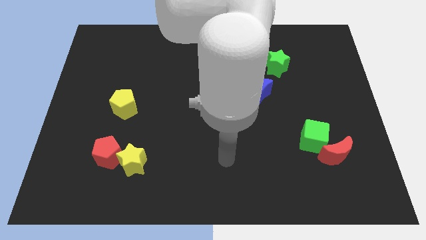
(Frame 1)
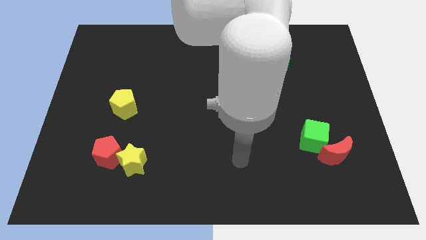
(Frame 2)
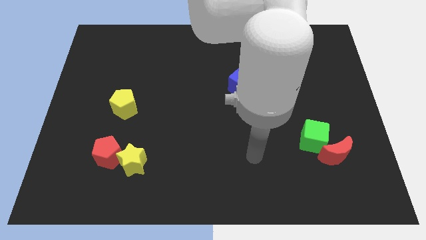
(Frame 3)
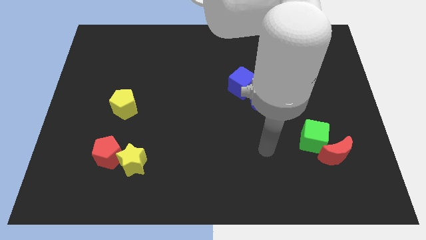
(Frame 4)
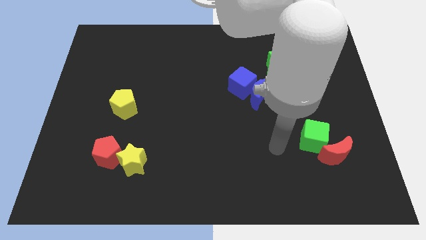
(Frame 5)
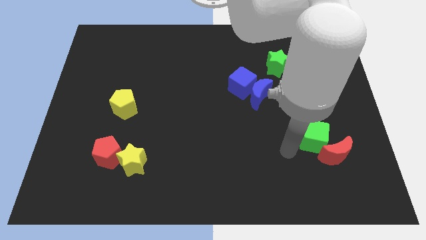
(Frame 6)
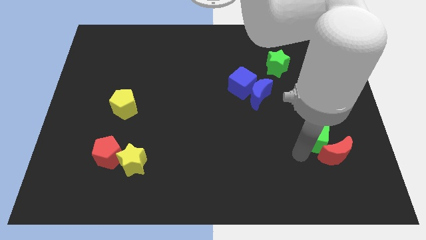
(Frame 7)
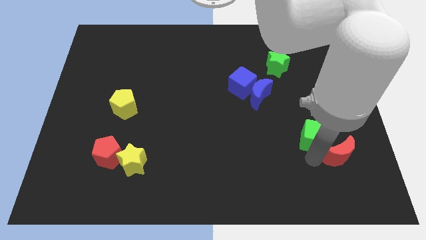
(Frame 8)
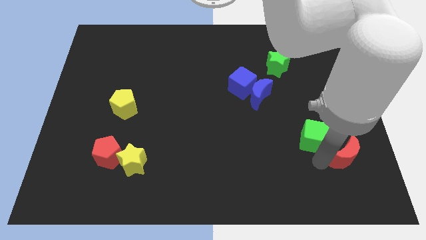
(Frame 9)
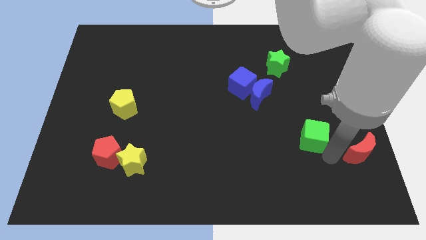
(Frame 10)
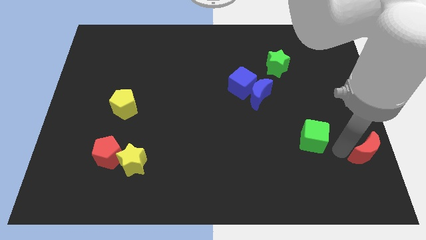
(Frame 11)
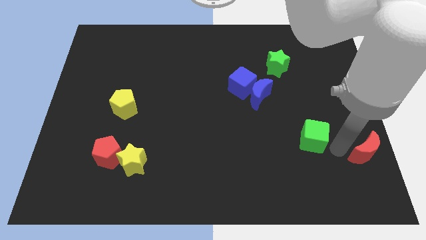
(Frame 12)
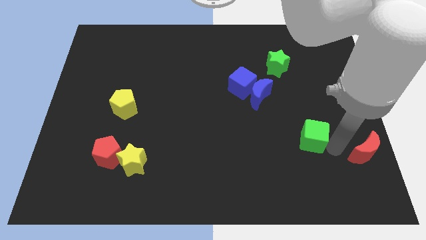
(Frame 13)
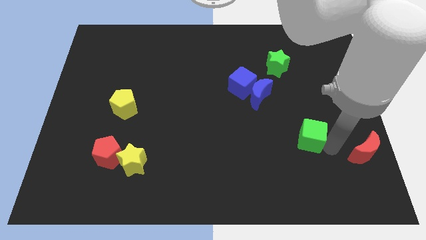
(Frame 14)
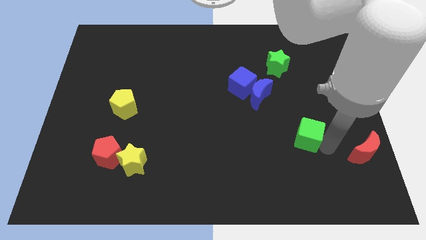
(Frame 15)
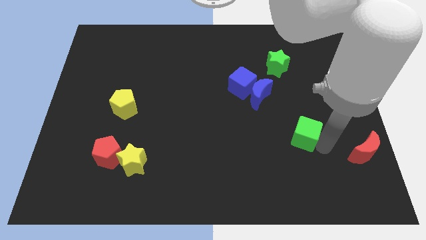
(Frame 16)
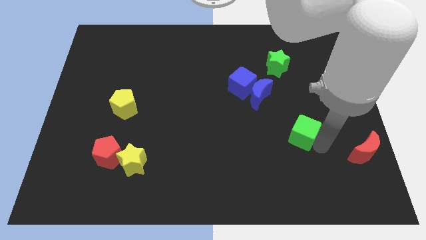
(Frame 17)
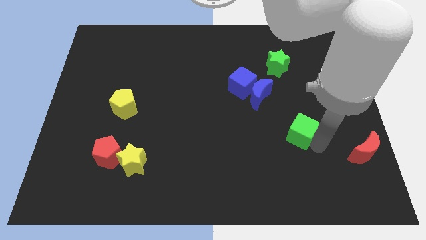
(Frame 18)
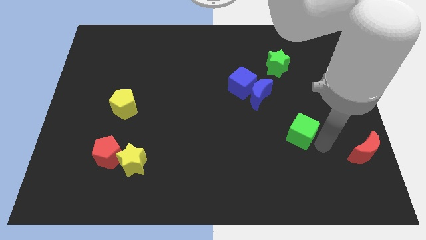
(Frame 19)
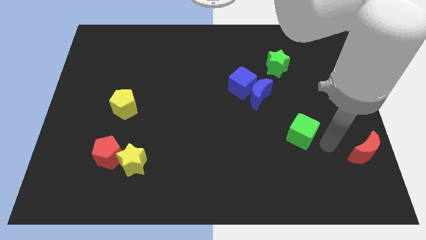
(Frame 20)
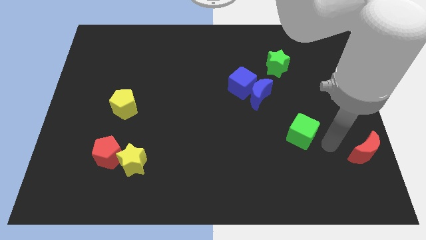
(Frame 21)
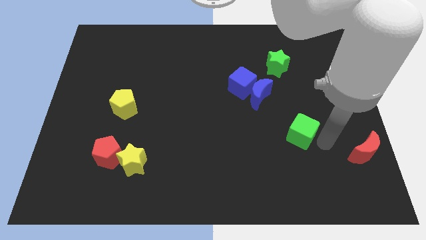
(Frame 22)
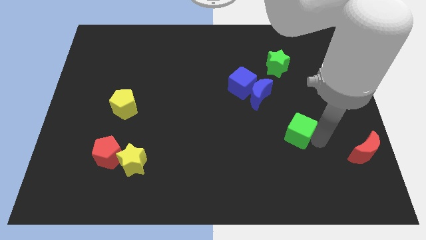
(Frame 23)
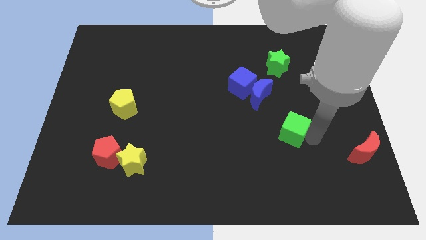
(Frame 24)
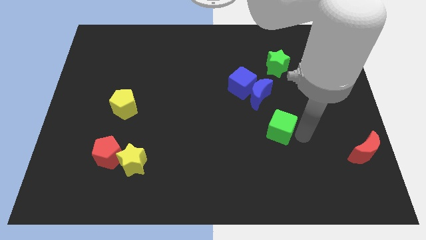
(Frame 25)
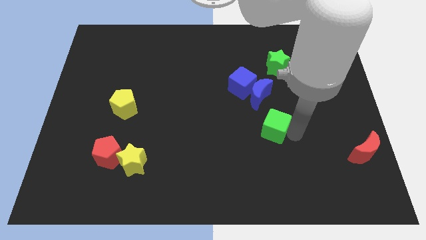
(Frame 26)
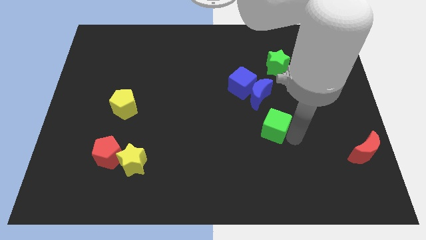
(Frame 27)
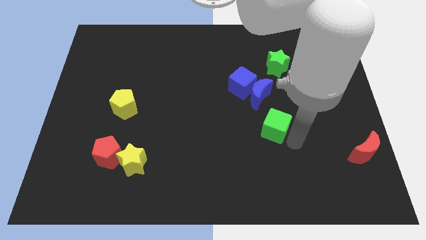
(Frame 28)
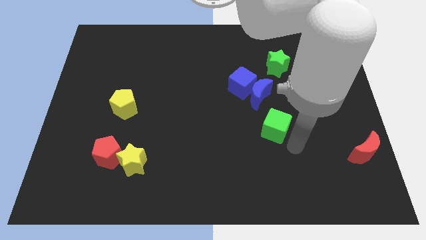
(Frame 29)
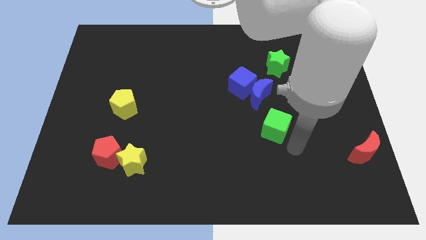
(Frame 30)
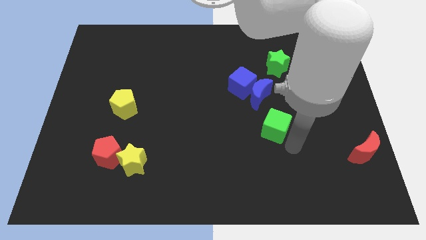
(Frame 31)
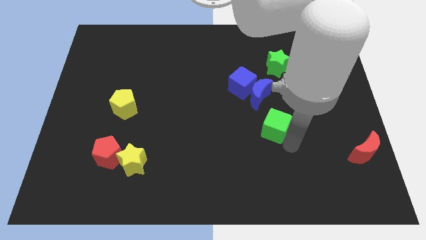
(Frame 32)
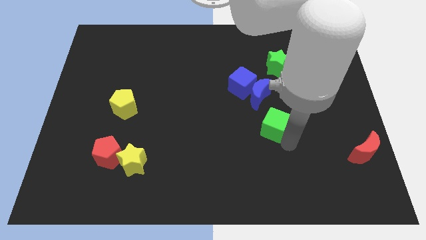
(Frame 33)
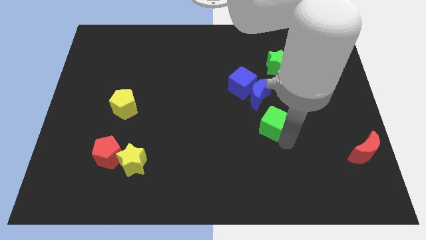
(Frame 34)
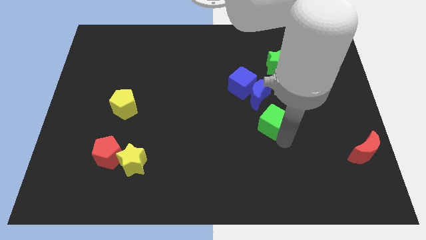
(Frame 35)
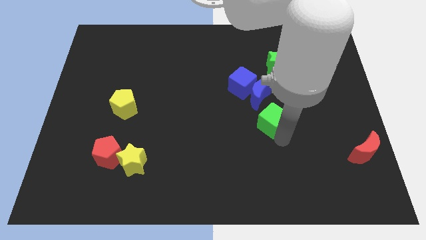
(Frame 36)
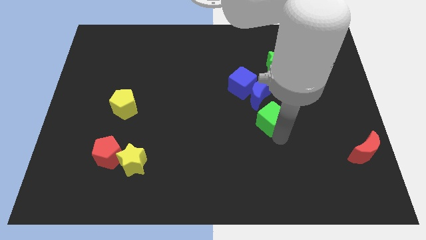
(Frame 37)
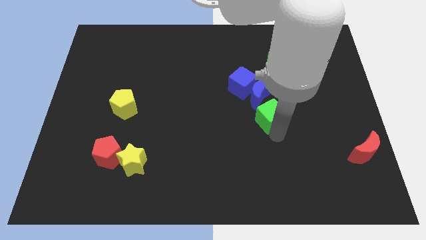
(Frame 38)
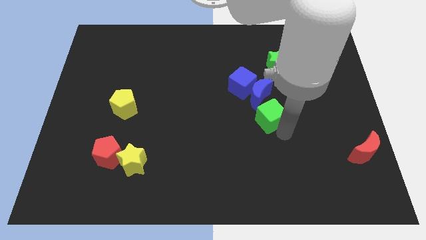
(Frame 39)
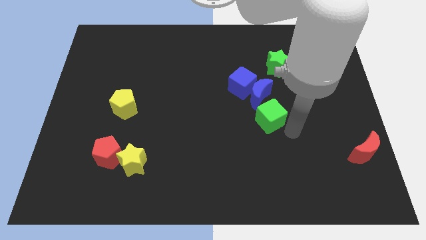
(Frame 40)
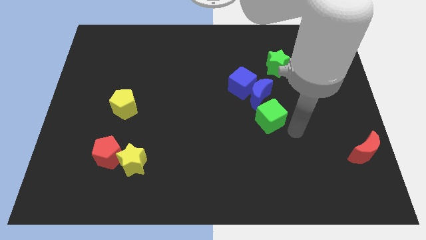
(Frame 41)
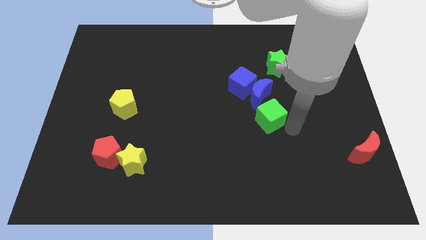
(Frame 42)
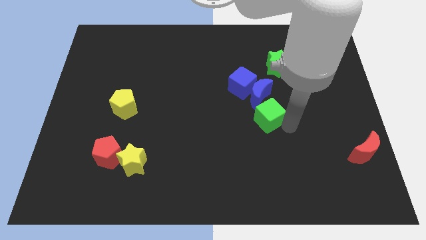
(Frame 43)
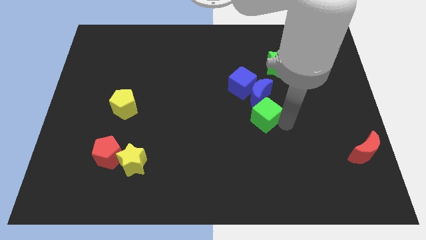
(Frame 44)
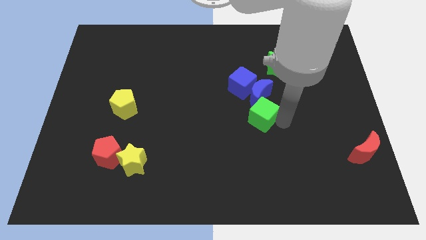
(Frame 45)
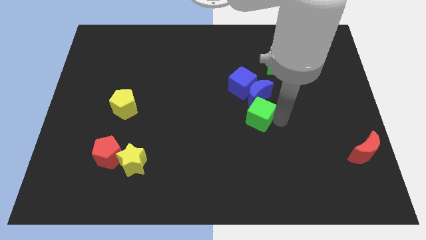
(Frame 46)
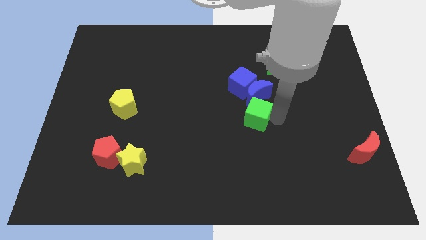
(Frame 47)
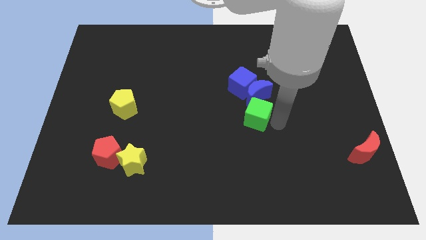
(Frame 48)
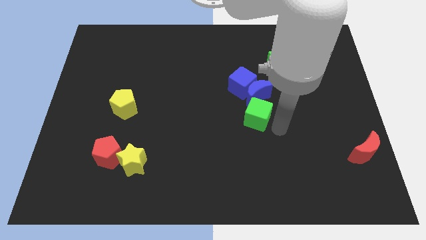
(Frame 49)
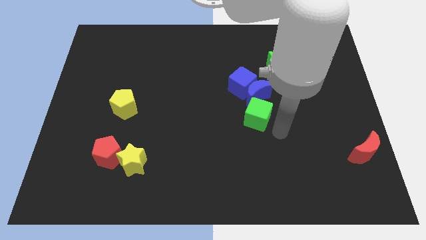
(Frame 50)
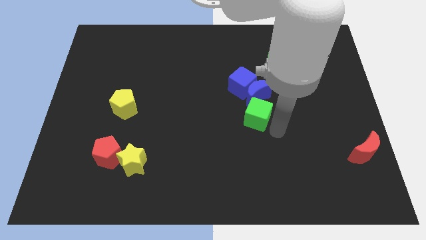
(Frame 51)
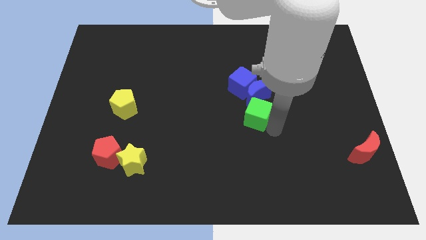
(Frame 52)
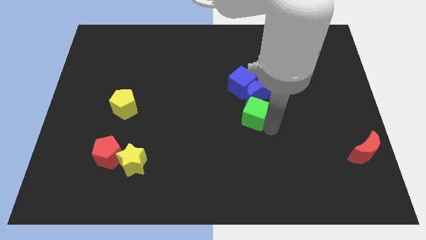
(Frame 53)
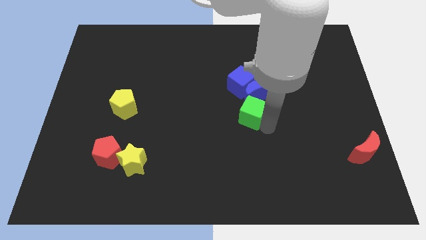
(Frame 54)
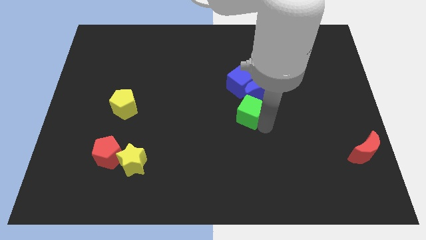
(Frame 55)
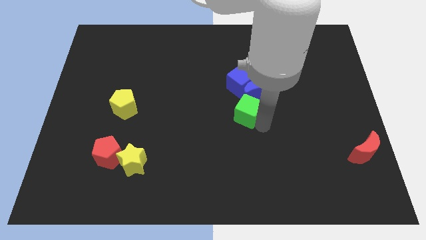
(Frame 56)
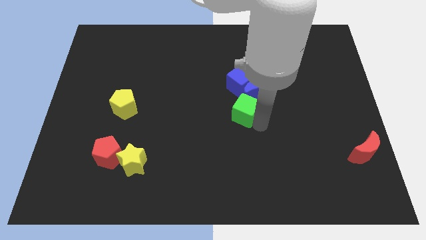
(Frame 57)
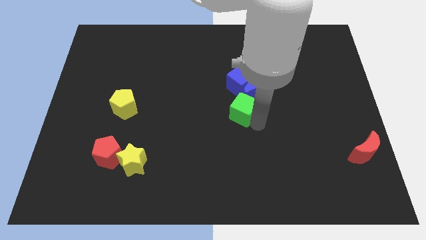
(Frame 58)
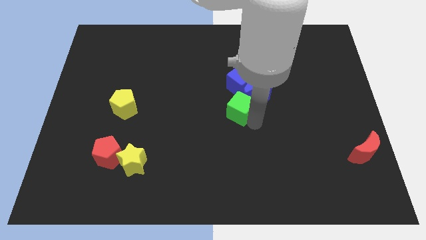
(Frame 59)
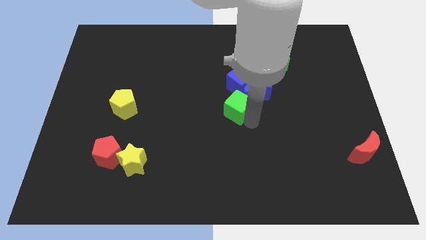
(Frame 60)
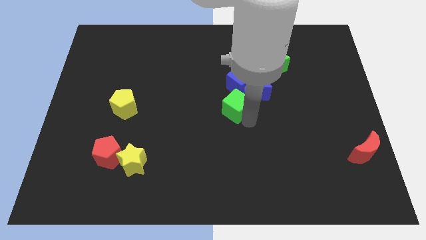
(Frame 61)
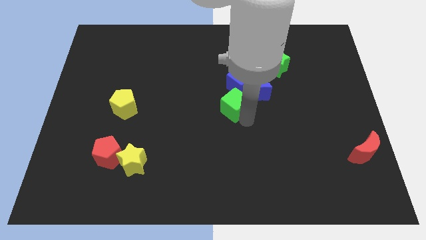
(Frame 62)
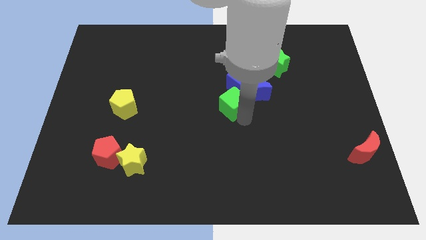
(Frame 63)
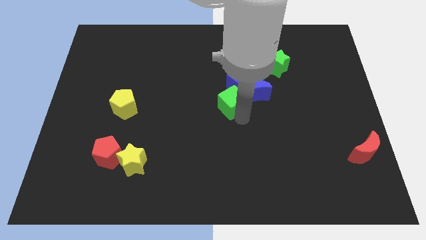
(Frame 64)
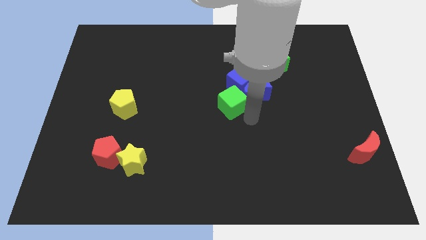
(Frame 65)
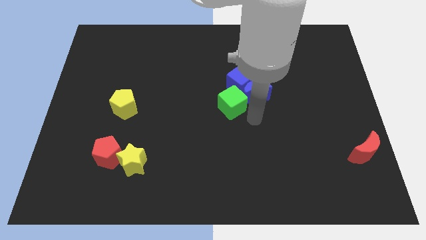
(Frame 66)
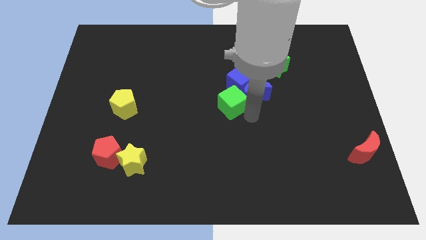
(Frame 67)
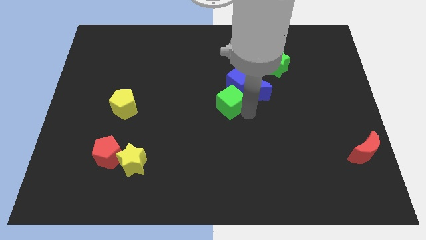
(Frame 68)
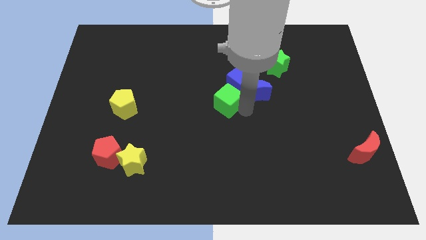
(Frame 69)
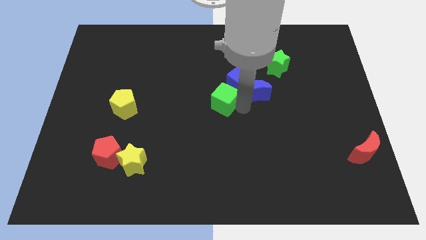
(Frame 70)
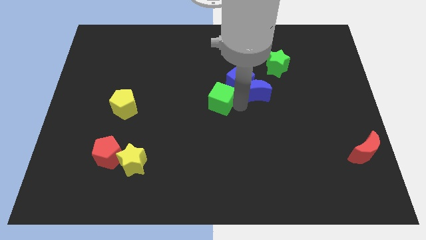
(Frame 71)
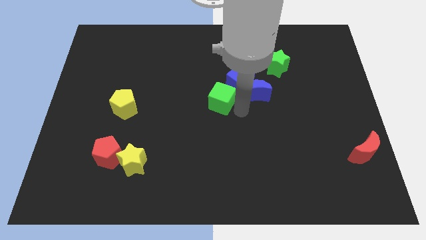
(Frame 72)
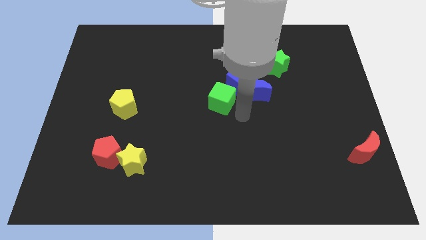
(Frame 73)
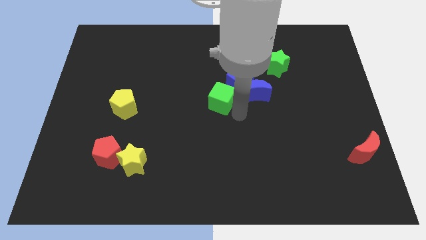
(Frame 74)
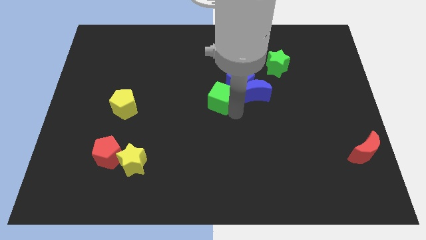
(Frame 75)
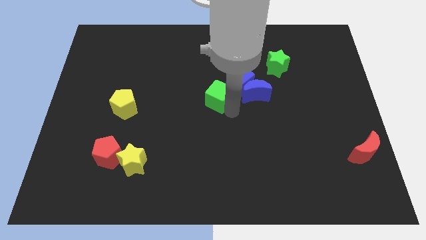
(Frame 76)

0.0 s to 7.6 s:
slide the green cube just left of the blue cube
